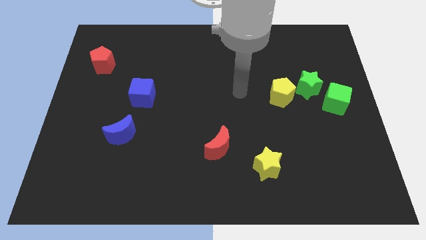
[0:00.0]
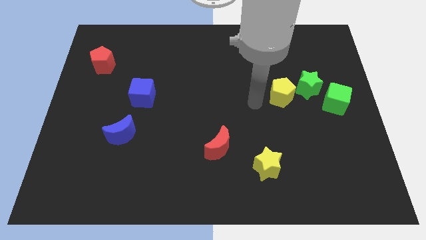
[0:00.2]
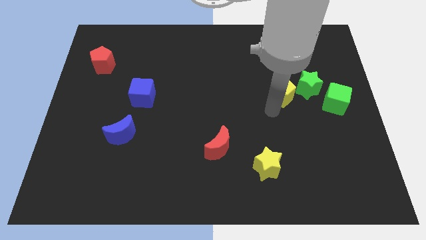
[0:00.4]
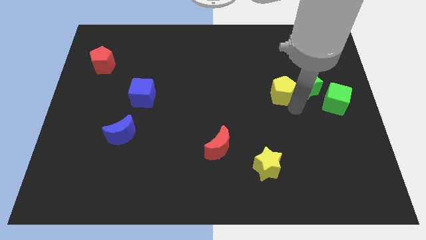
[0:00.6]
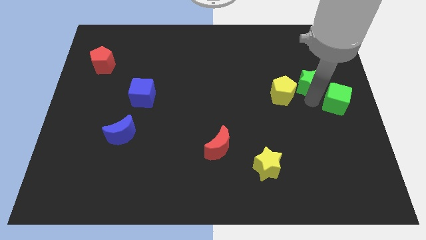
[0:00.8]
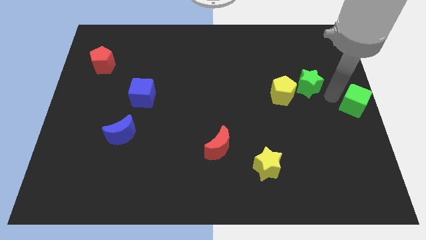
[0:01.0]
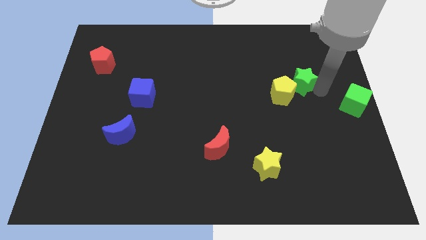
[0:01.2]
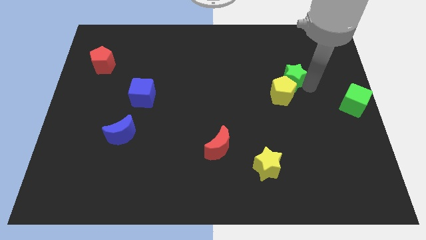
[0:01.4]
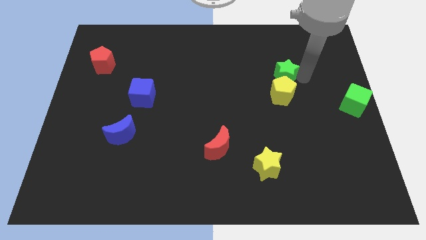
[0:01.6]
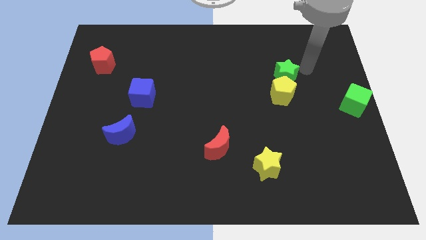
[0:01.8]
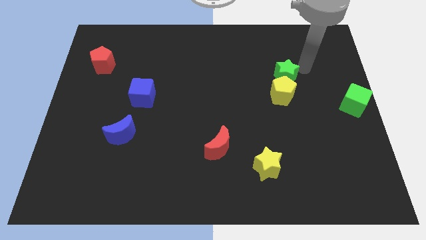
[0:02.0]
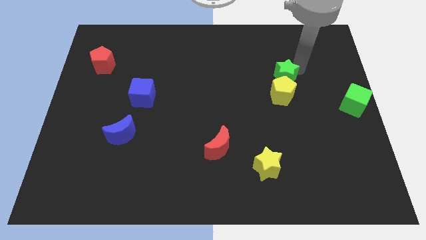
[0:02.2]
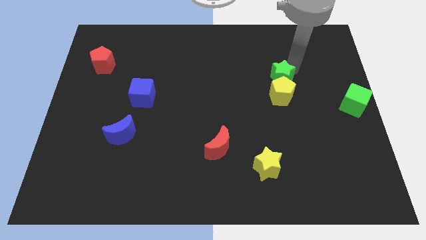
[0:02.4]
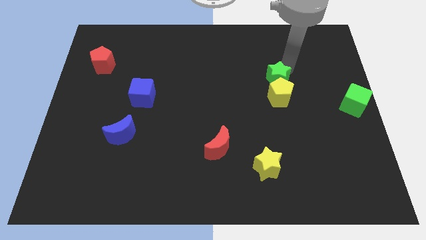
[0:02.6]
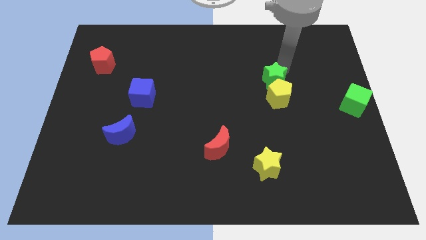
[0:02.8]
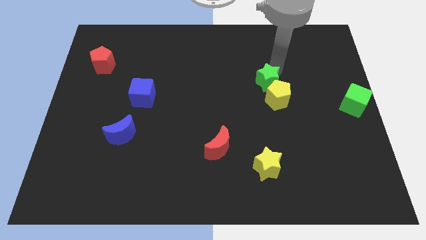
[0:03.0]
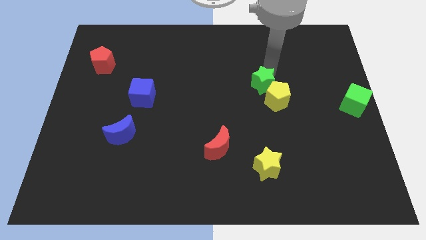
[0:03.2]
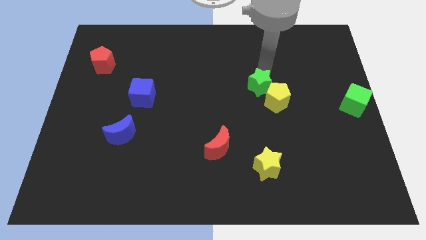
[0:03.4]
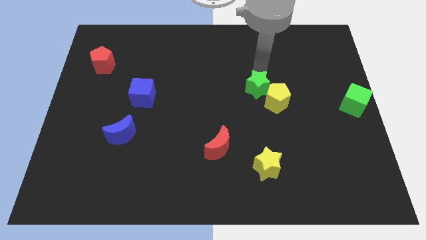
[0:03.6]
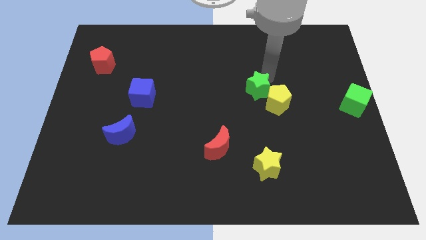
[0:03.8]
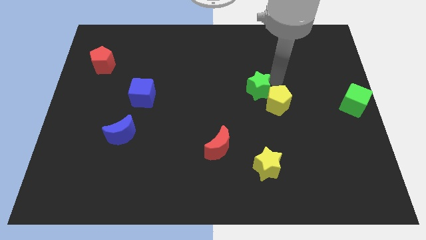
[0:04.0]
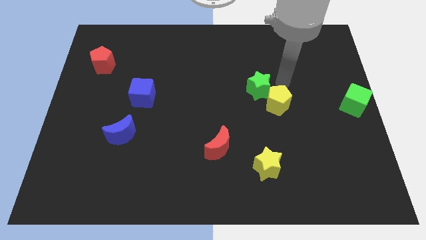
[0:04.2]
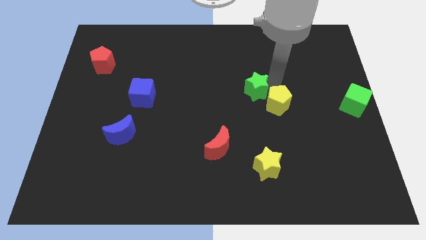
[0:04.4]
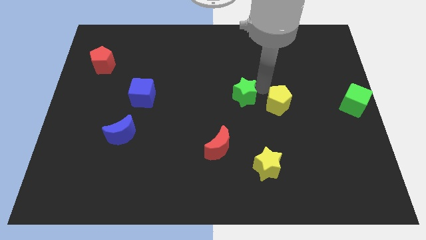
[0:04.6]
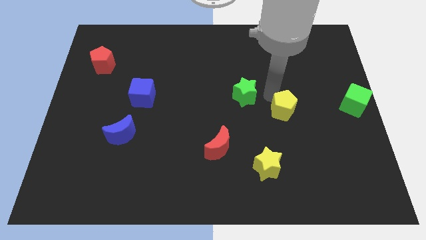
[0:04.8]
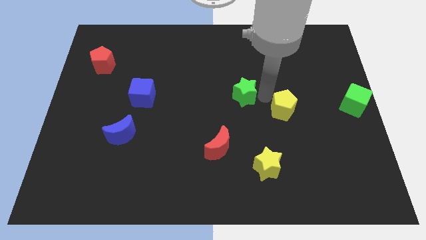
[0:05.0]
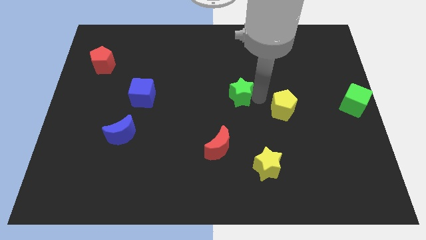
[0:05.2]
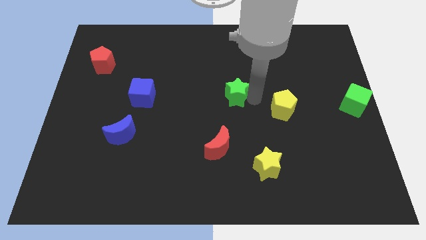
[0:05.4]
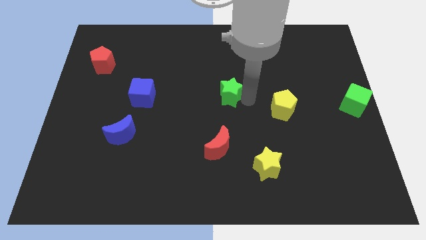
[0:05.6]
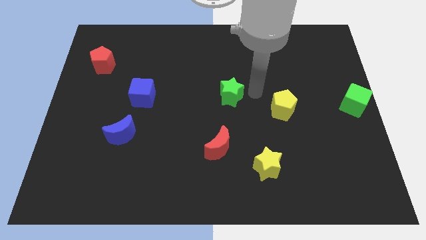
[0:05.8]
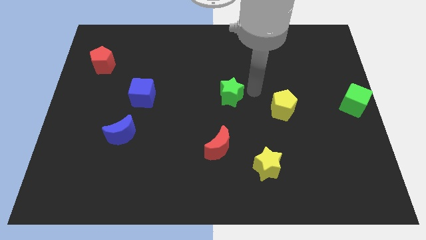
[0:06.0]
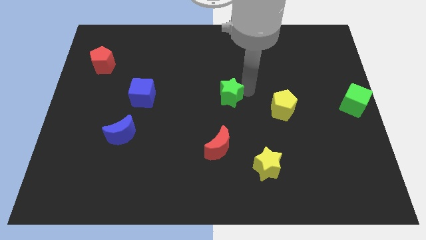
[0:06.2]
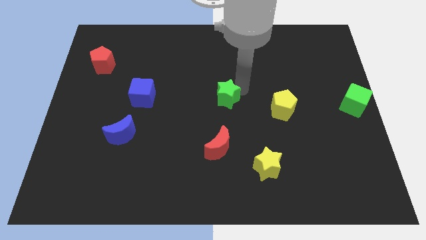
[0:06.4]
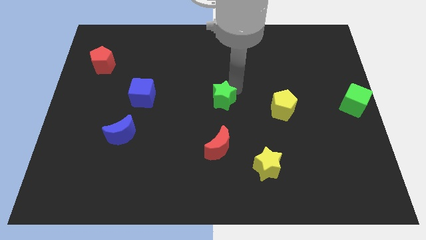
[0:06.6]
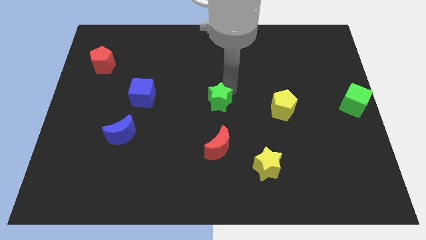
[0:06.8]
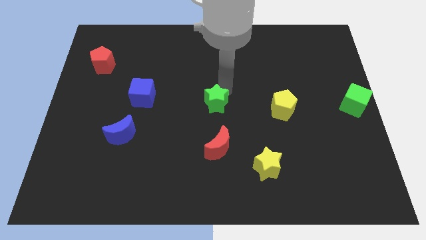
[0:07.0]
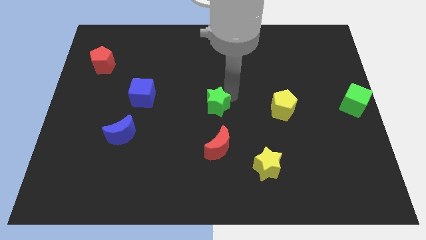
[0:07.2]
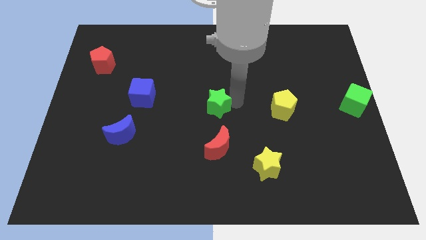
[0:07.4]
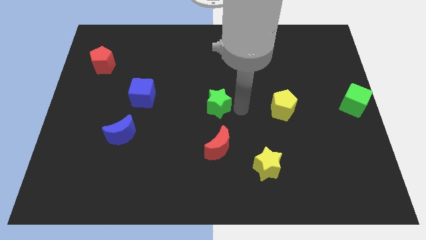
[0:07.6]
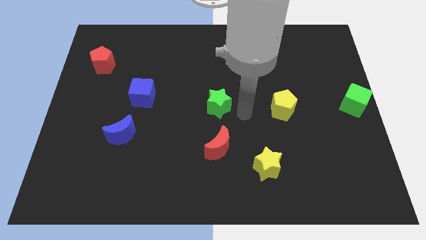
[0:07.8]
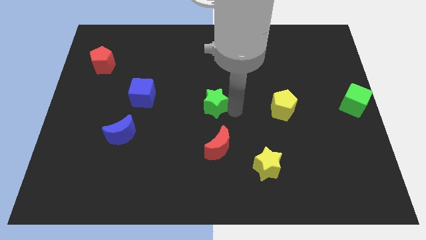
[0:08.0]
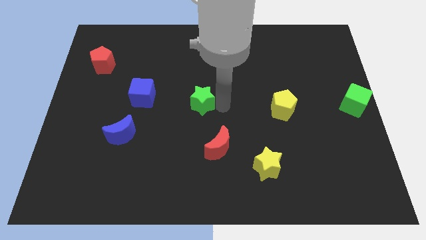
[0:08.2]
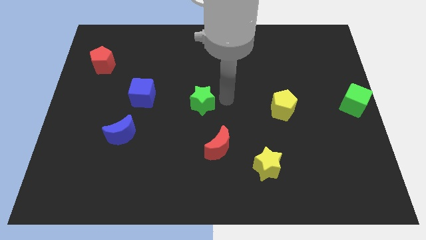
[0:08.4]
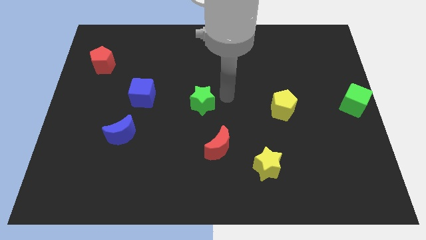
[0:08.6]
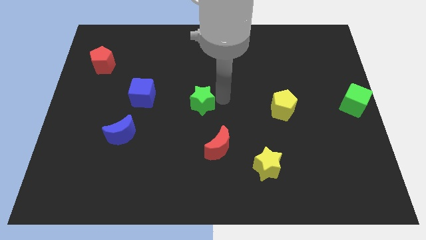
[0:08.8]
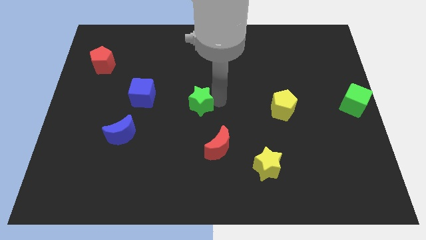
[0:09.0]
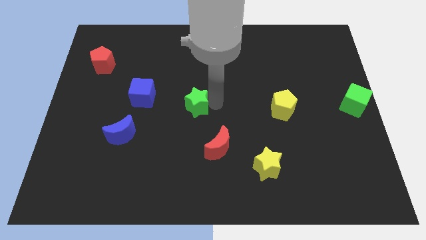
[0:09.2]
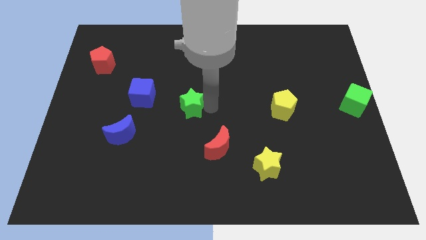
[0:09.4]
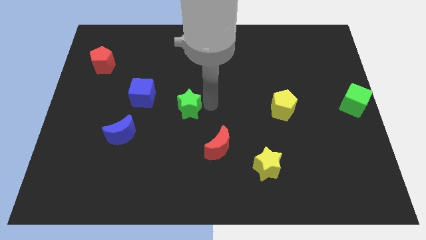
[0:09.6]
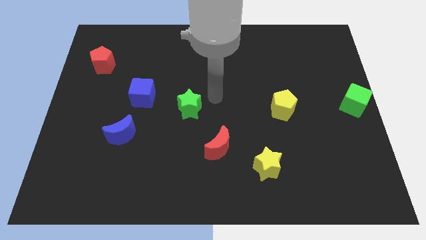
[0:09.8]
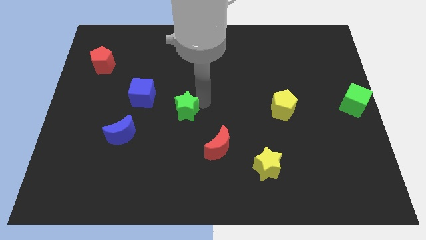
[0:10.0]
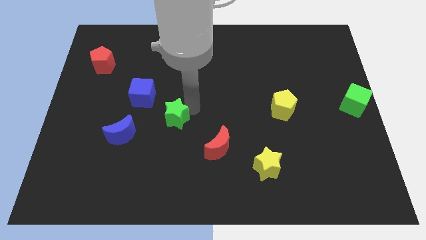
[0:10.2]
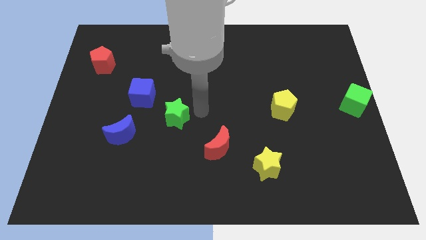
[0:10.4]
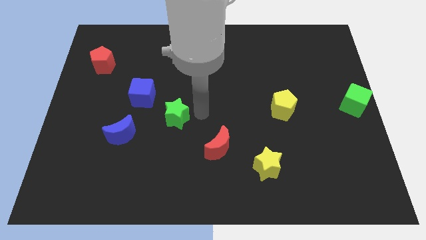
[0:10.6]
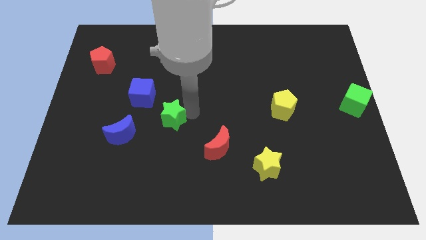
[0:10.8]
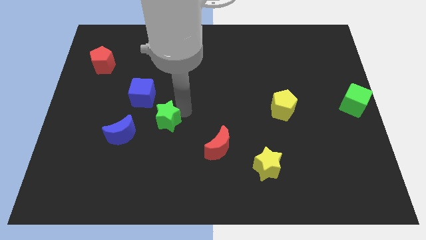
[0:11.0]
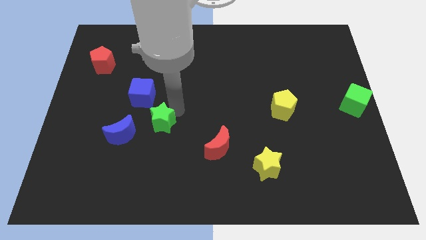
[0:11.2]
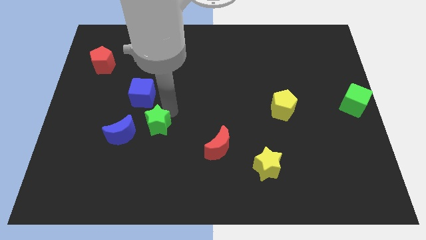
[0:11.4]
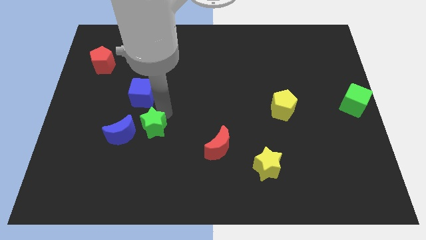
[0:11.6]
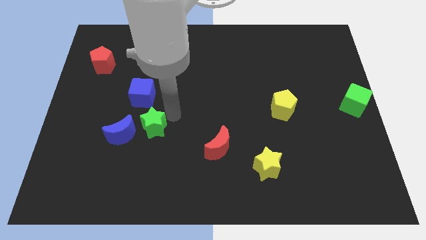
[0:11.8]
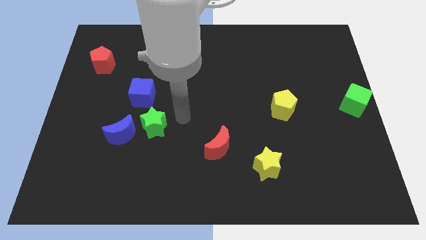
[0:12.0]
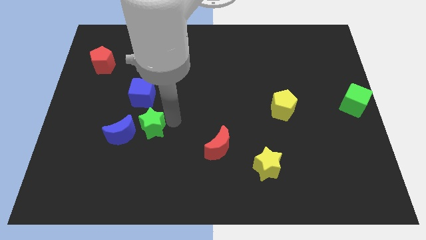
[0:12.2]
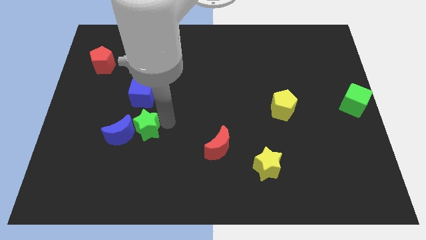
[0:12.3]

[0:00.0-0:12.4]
put the green star towards the blue moon
